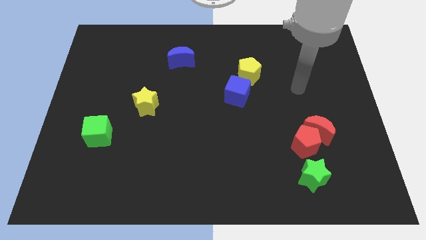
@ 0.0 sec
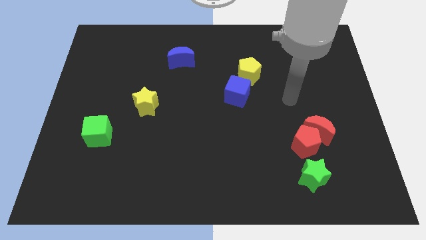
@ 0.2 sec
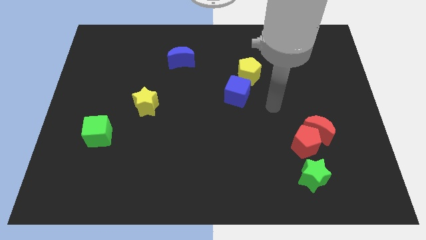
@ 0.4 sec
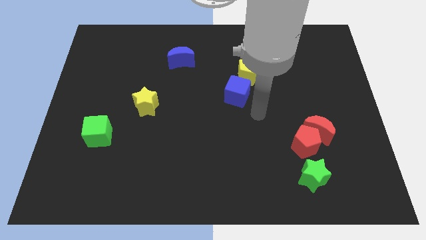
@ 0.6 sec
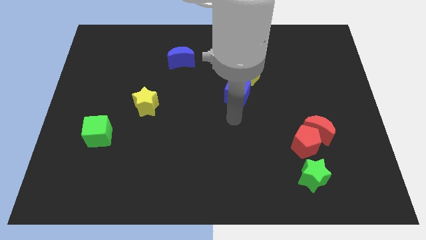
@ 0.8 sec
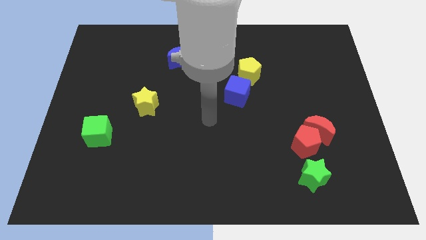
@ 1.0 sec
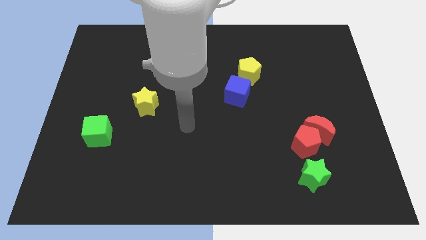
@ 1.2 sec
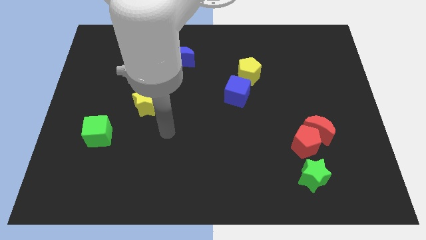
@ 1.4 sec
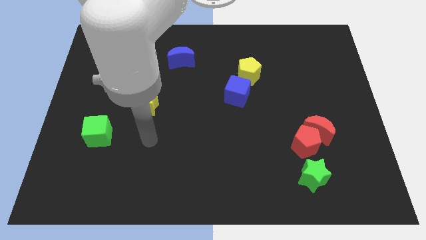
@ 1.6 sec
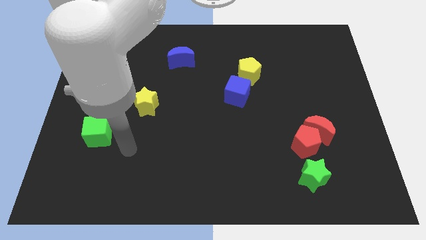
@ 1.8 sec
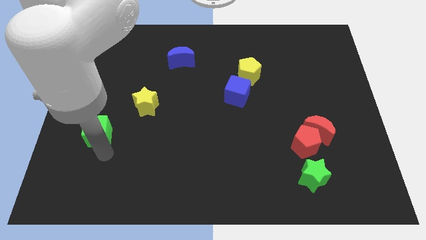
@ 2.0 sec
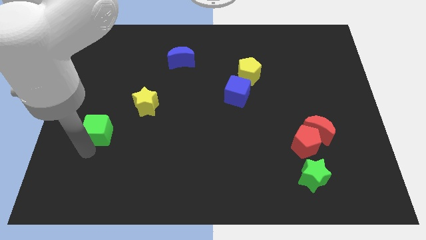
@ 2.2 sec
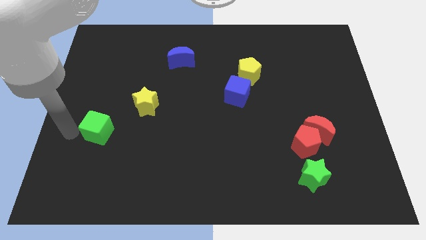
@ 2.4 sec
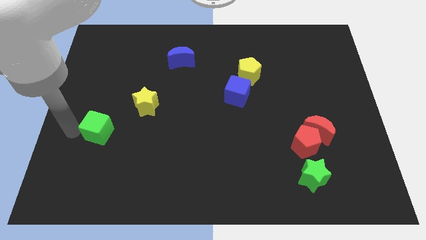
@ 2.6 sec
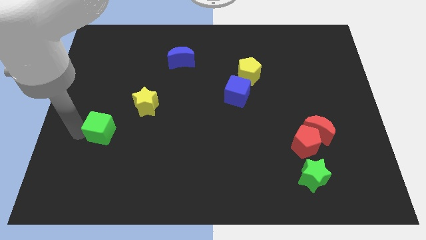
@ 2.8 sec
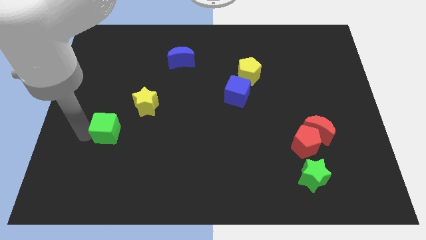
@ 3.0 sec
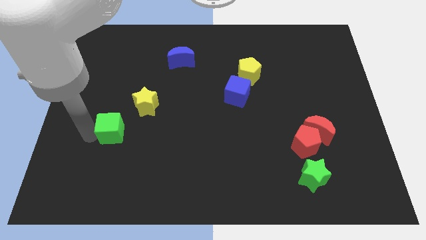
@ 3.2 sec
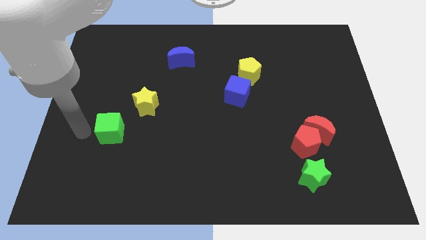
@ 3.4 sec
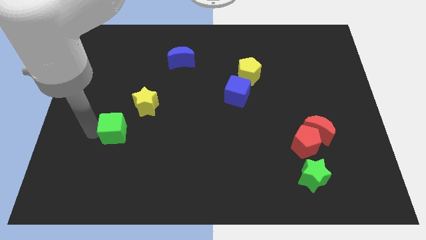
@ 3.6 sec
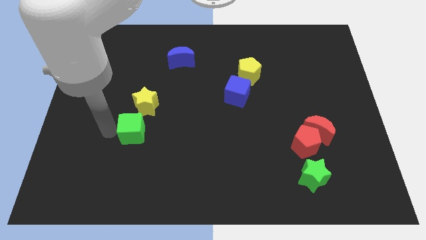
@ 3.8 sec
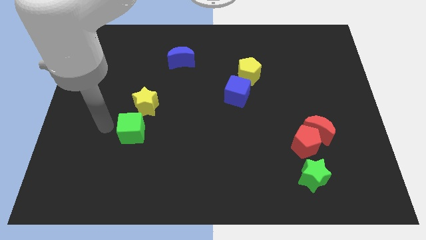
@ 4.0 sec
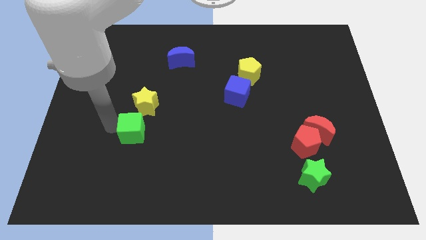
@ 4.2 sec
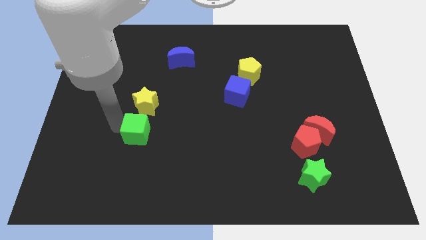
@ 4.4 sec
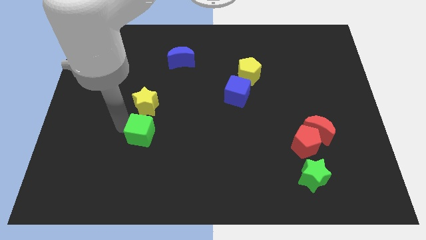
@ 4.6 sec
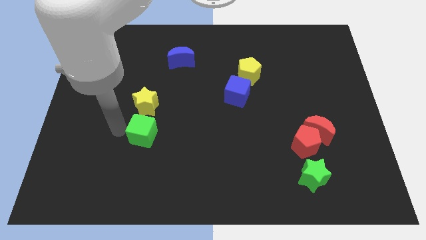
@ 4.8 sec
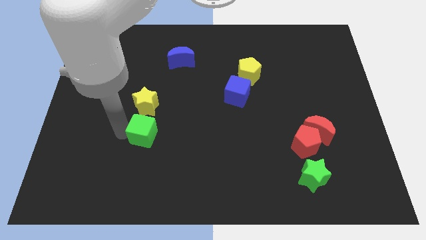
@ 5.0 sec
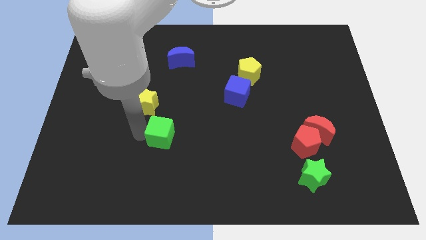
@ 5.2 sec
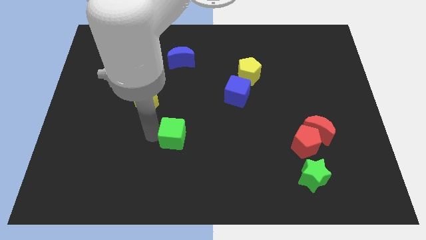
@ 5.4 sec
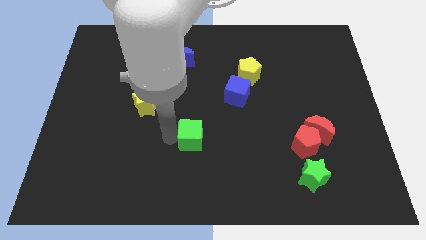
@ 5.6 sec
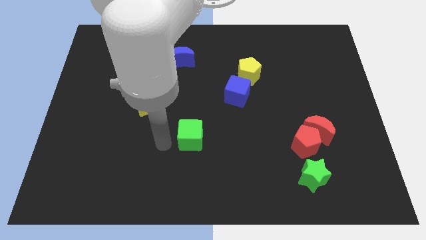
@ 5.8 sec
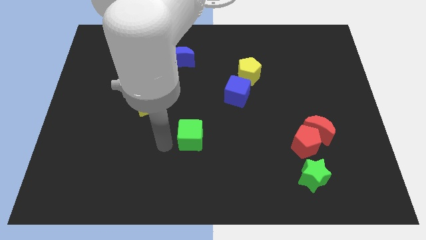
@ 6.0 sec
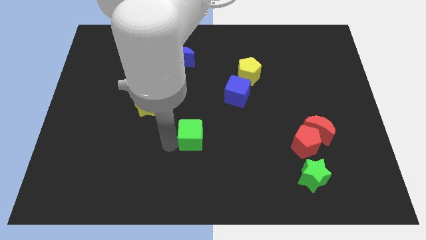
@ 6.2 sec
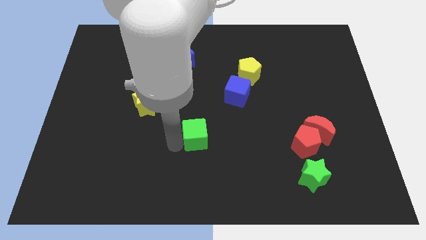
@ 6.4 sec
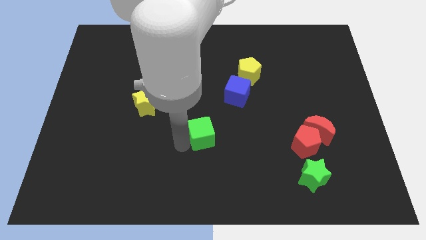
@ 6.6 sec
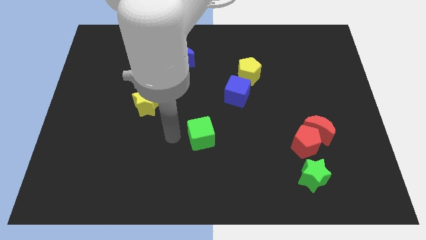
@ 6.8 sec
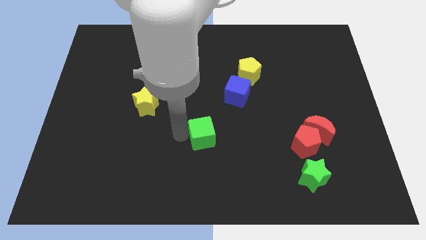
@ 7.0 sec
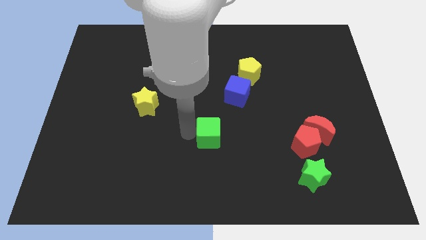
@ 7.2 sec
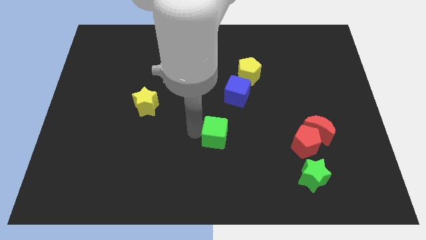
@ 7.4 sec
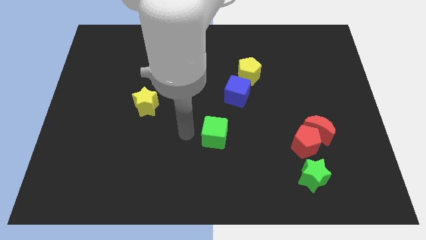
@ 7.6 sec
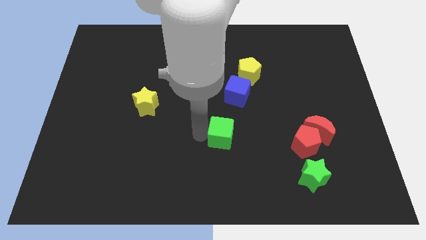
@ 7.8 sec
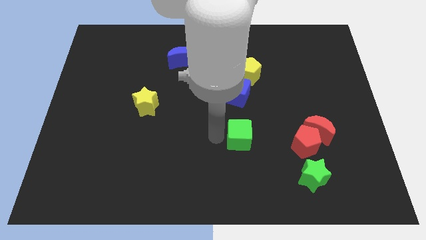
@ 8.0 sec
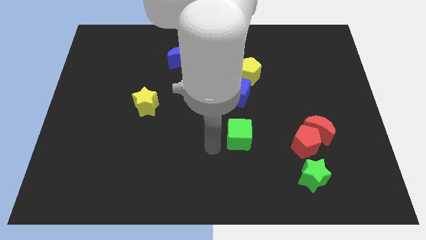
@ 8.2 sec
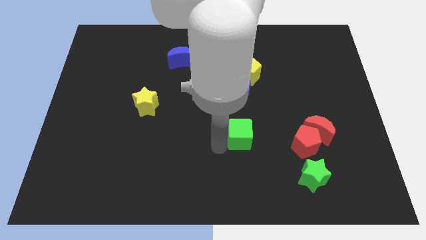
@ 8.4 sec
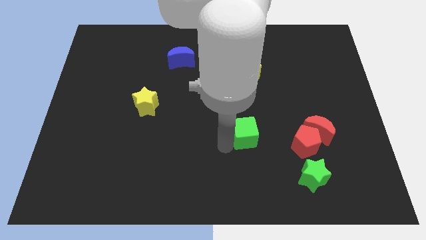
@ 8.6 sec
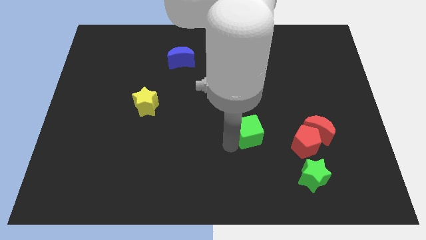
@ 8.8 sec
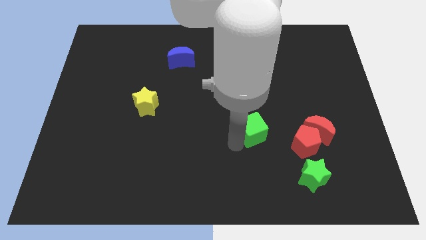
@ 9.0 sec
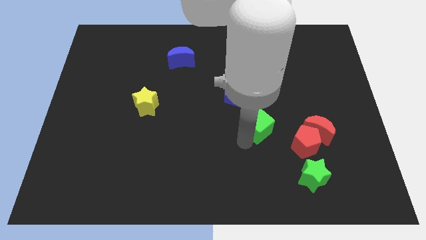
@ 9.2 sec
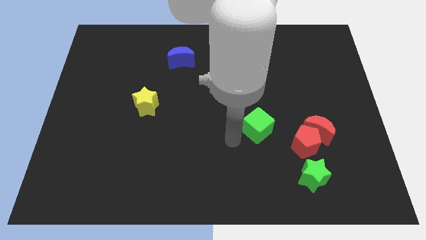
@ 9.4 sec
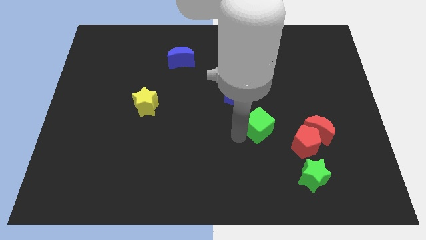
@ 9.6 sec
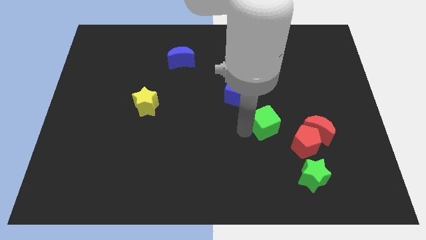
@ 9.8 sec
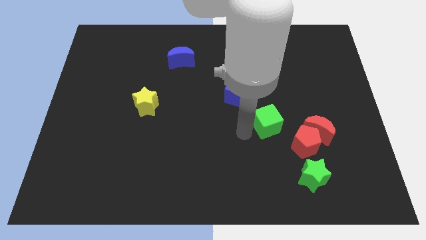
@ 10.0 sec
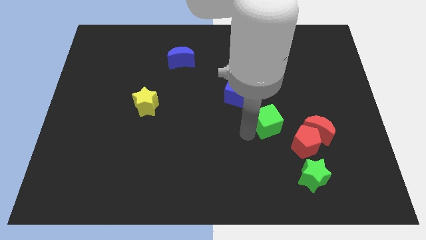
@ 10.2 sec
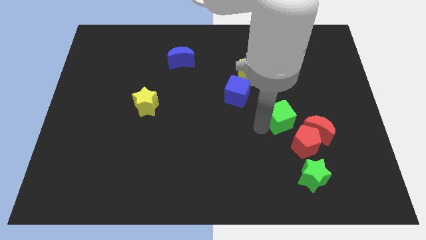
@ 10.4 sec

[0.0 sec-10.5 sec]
move the green cube to the top left side of the red moon

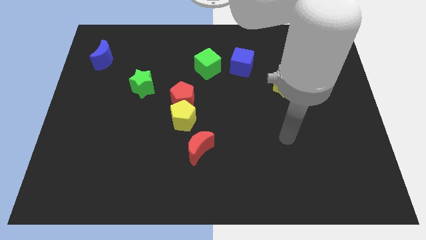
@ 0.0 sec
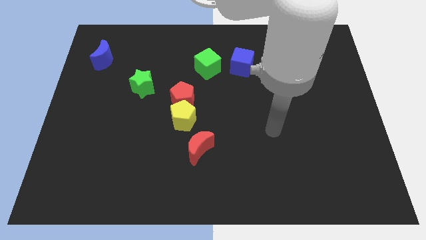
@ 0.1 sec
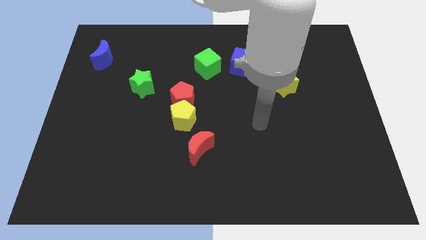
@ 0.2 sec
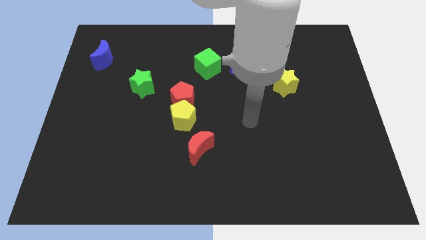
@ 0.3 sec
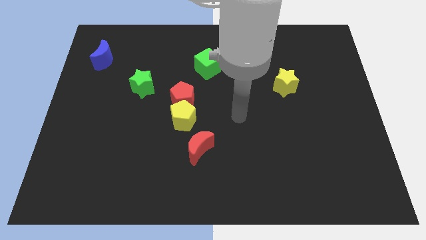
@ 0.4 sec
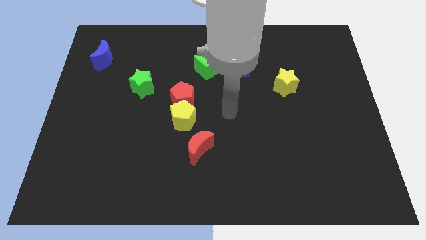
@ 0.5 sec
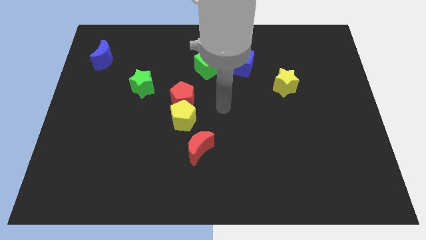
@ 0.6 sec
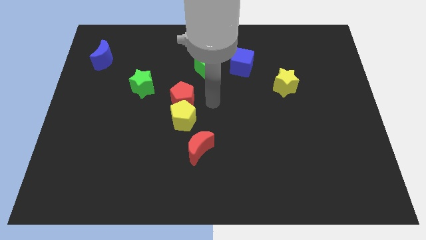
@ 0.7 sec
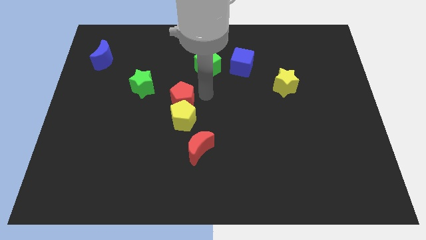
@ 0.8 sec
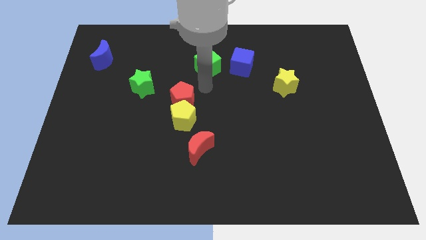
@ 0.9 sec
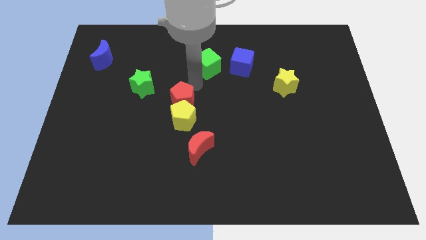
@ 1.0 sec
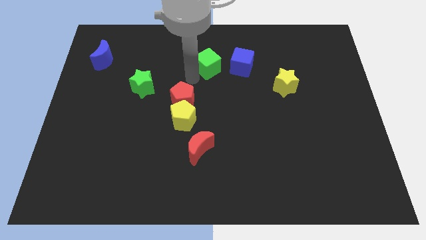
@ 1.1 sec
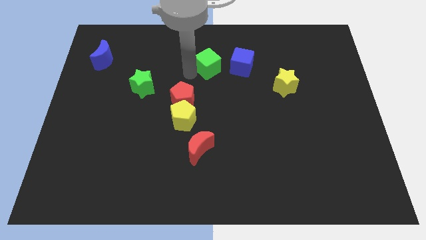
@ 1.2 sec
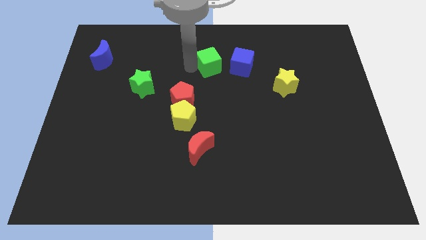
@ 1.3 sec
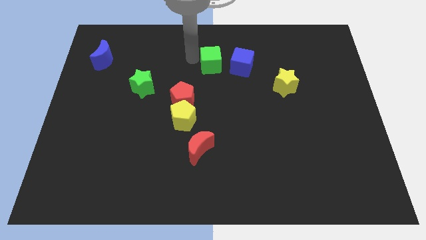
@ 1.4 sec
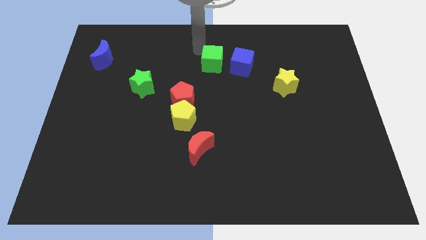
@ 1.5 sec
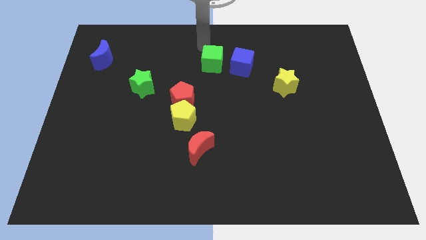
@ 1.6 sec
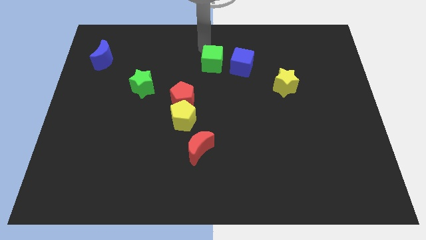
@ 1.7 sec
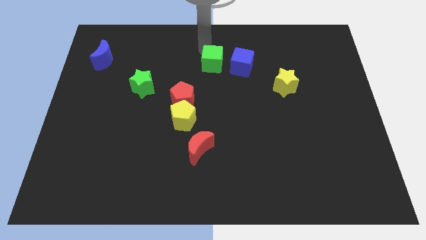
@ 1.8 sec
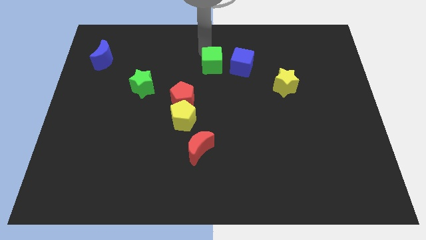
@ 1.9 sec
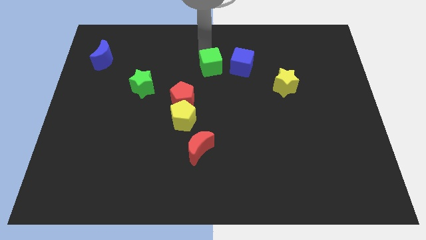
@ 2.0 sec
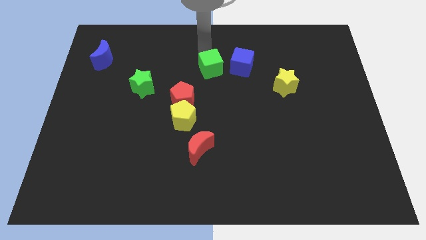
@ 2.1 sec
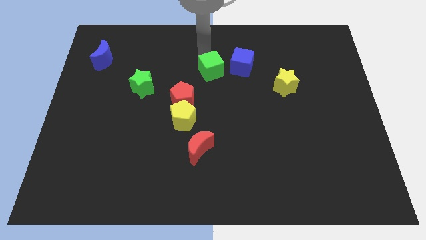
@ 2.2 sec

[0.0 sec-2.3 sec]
put the green cube to the bottom left side of the blue cube

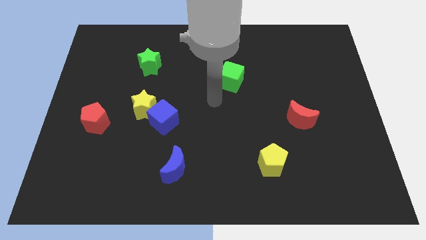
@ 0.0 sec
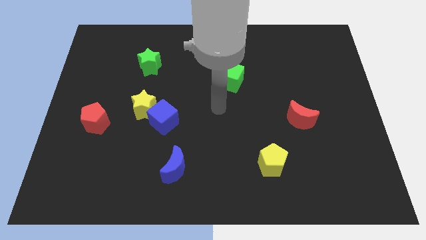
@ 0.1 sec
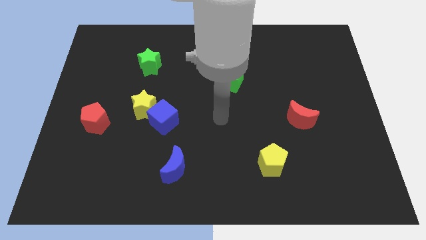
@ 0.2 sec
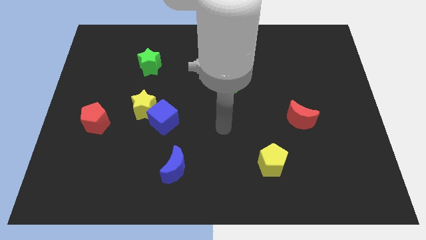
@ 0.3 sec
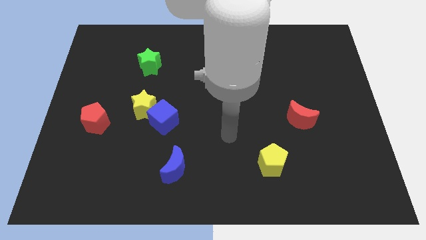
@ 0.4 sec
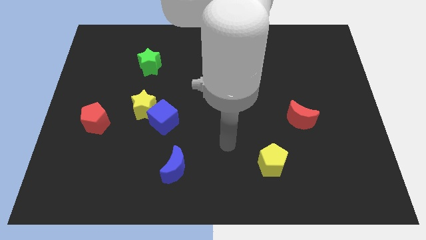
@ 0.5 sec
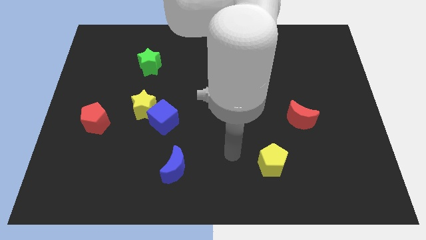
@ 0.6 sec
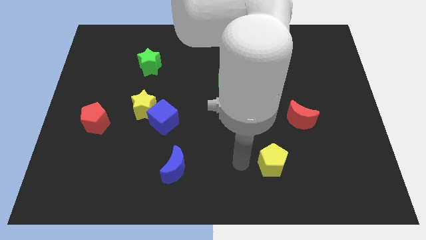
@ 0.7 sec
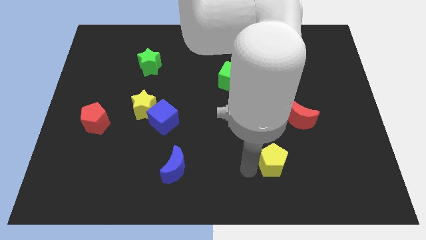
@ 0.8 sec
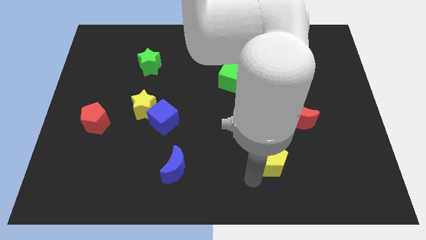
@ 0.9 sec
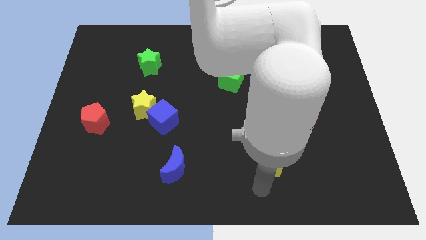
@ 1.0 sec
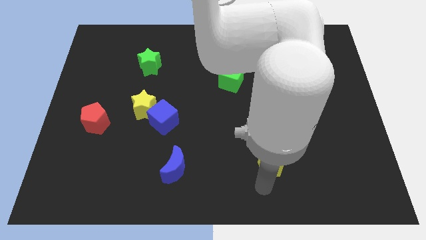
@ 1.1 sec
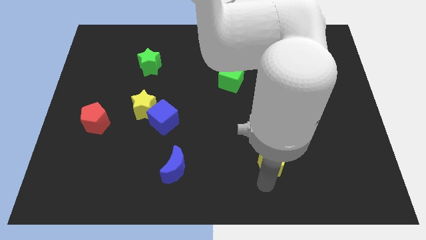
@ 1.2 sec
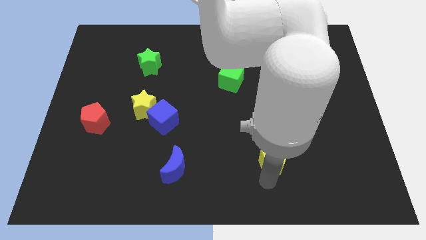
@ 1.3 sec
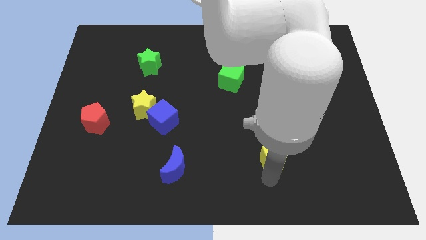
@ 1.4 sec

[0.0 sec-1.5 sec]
push the yellow pentagon to the bottom left side of the red moon
